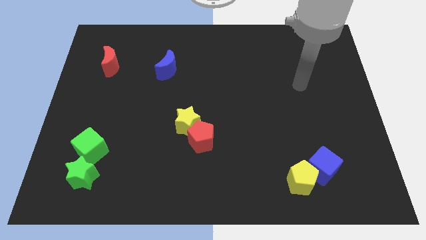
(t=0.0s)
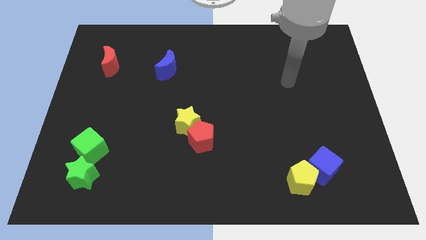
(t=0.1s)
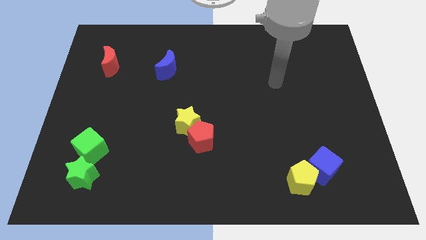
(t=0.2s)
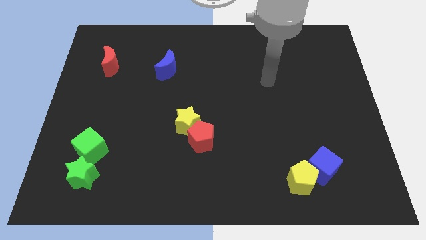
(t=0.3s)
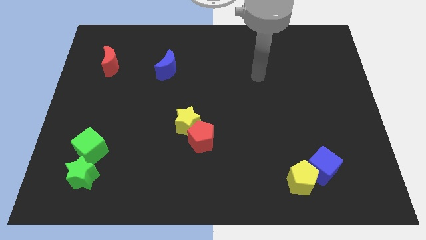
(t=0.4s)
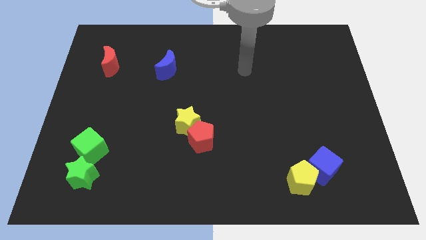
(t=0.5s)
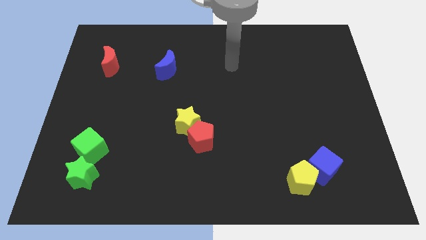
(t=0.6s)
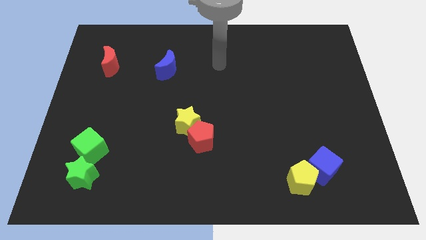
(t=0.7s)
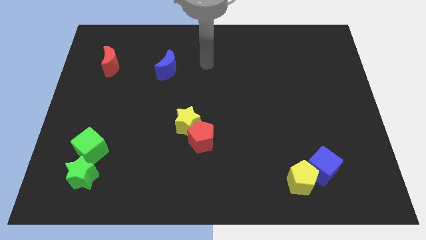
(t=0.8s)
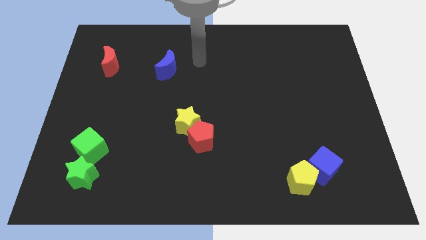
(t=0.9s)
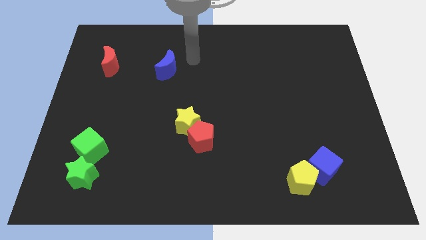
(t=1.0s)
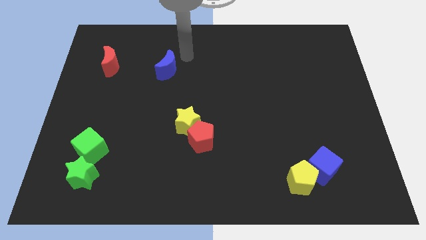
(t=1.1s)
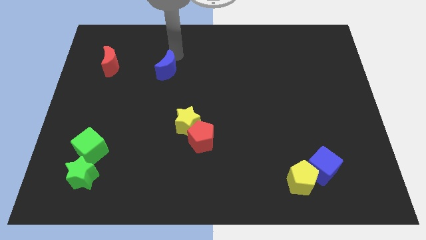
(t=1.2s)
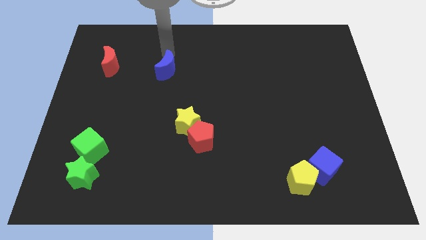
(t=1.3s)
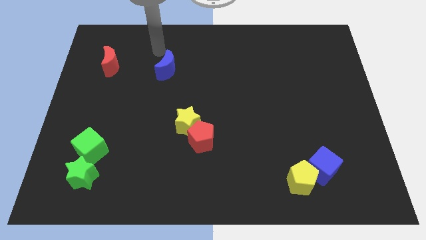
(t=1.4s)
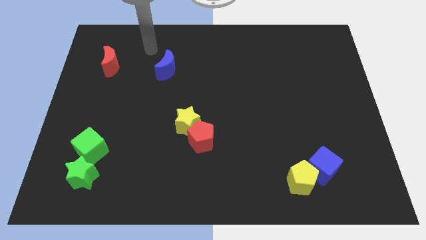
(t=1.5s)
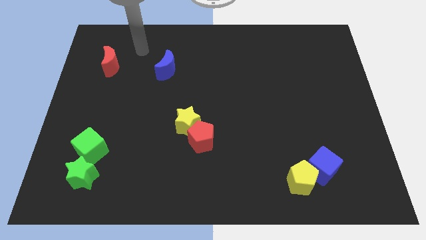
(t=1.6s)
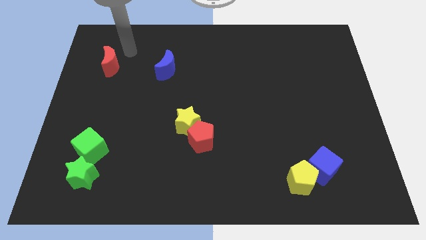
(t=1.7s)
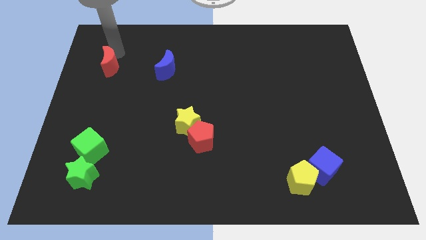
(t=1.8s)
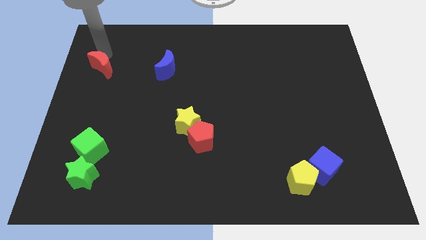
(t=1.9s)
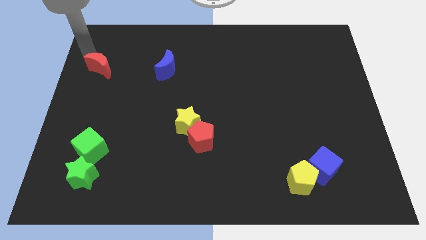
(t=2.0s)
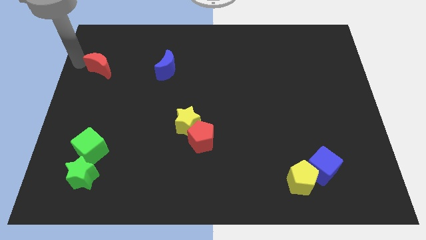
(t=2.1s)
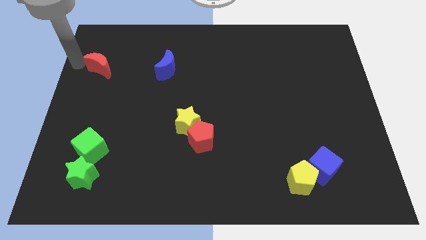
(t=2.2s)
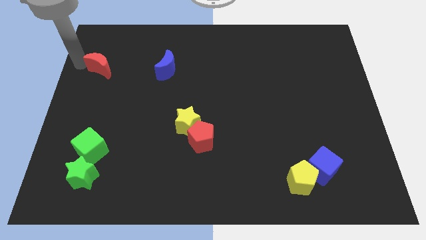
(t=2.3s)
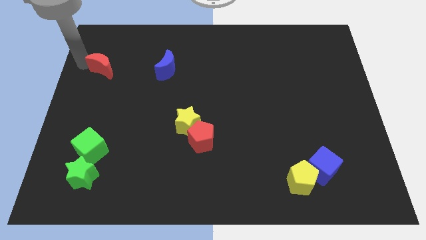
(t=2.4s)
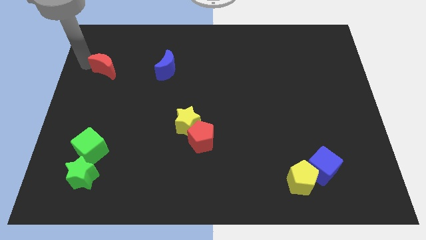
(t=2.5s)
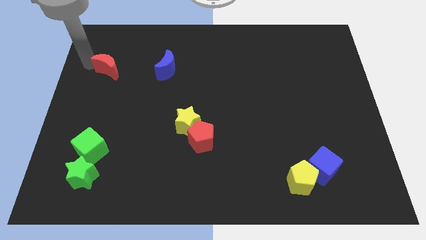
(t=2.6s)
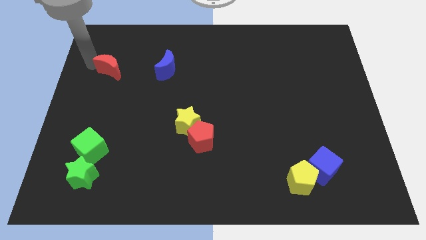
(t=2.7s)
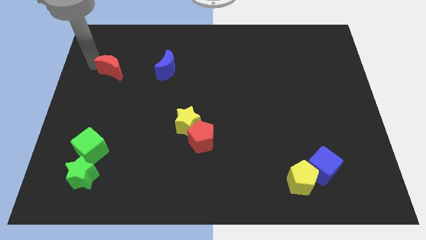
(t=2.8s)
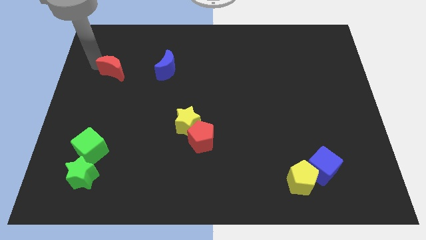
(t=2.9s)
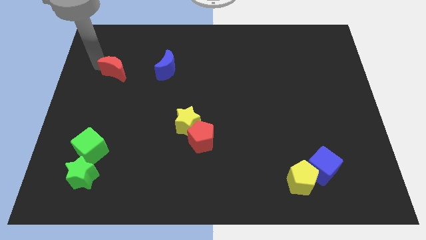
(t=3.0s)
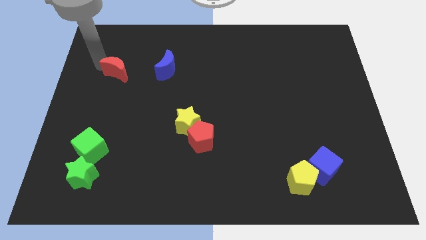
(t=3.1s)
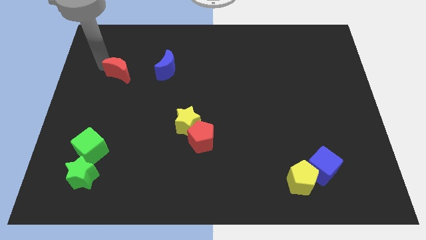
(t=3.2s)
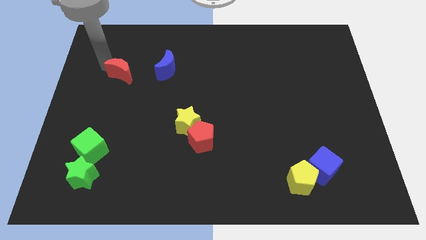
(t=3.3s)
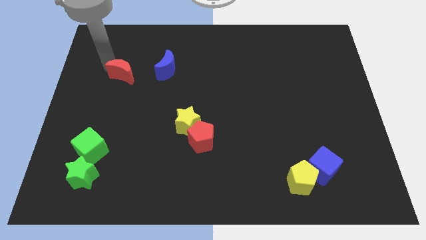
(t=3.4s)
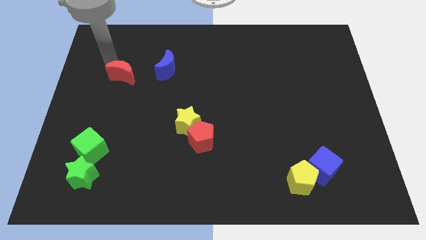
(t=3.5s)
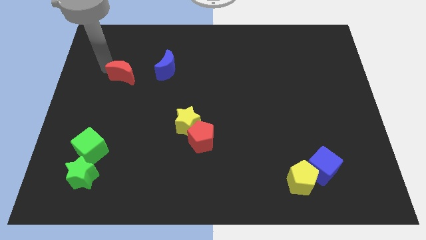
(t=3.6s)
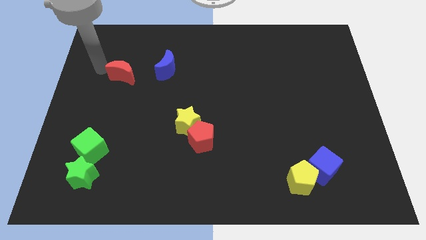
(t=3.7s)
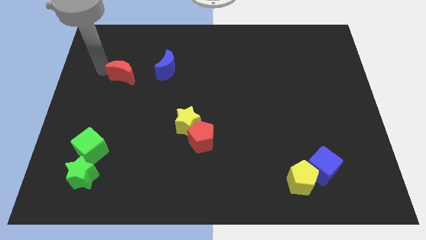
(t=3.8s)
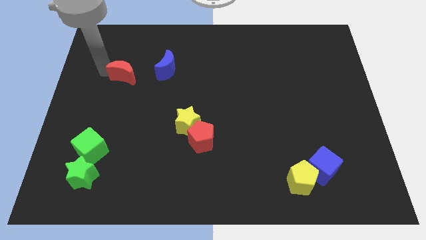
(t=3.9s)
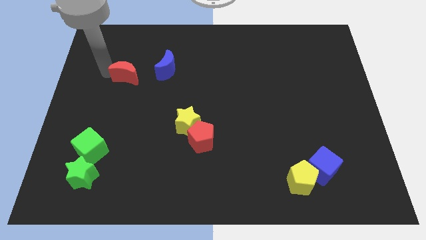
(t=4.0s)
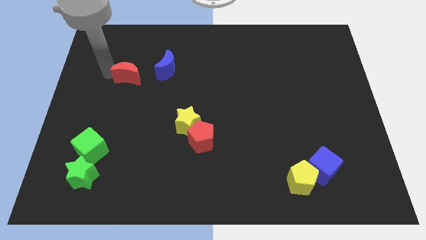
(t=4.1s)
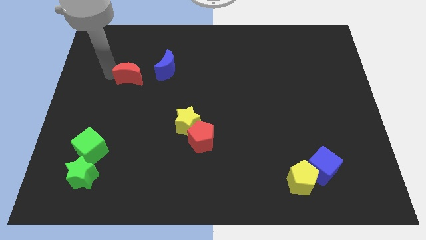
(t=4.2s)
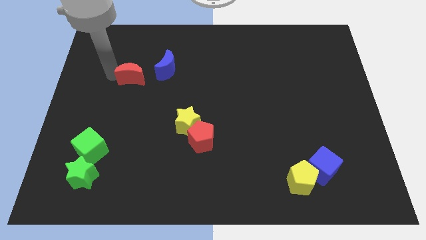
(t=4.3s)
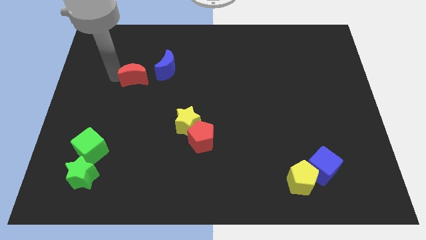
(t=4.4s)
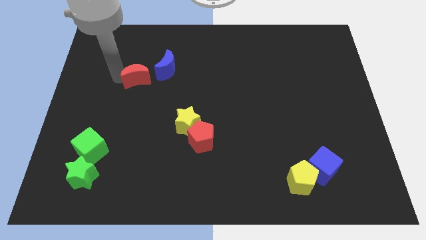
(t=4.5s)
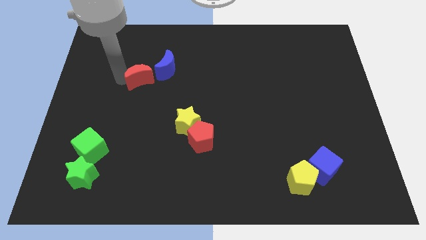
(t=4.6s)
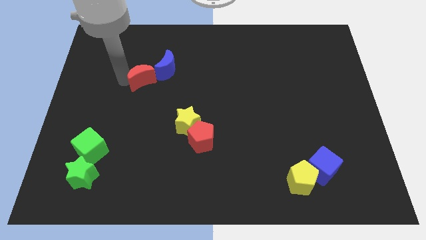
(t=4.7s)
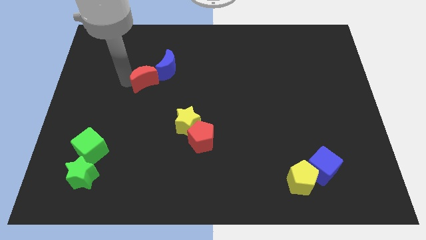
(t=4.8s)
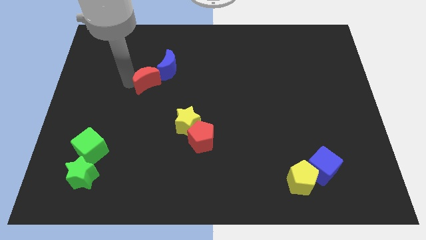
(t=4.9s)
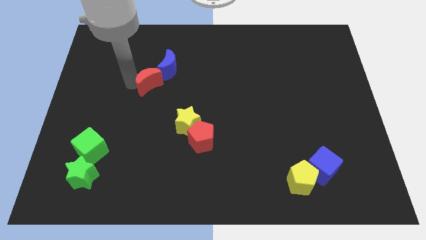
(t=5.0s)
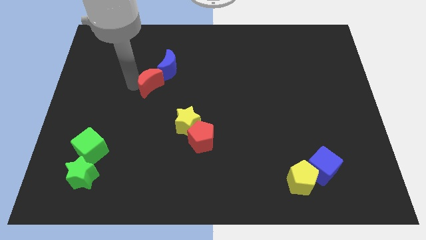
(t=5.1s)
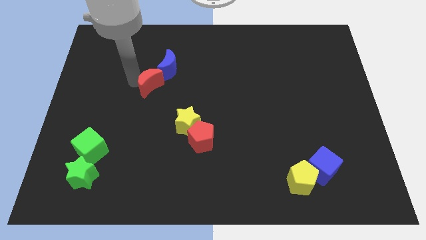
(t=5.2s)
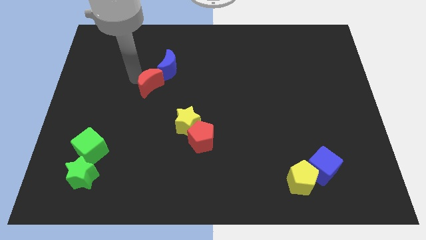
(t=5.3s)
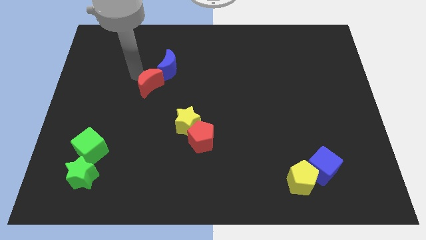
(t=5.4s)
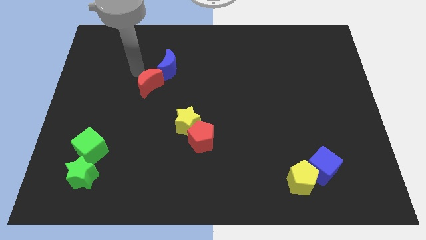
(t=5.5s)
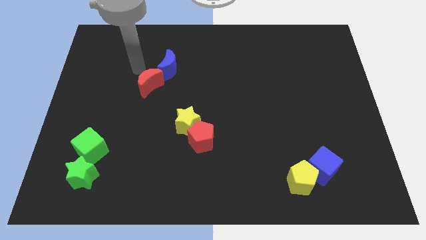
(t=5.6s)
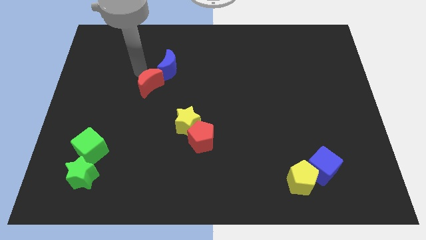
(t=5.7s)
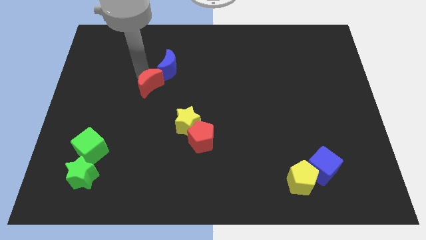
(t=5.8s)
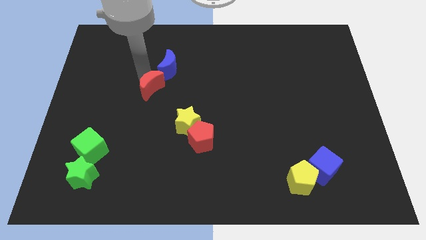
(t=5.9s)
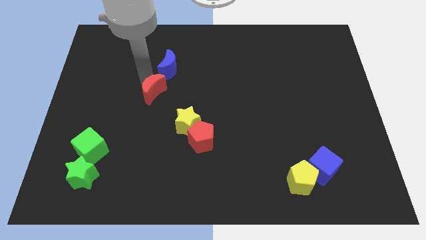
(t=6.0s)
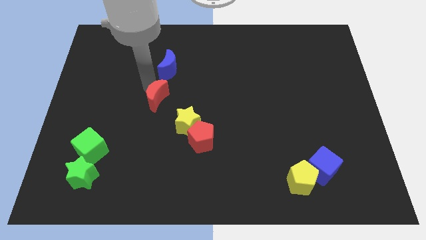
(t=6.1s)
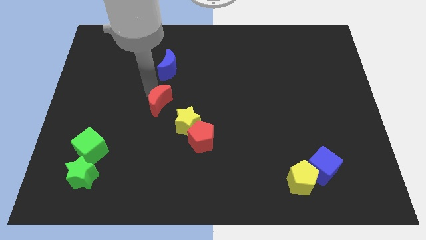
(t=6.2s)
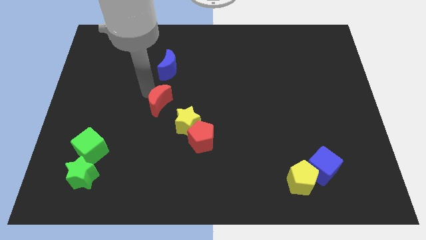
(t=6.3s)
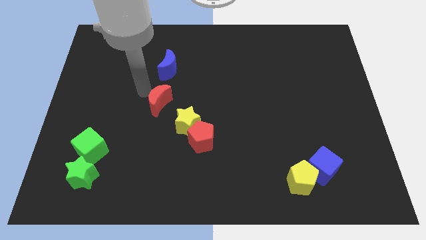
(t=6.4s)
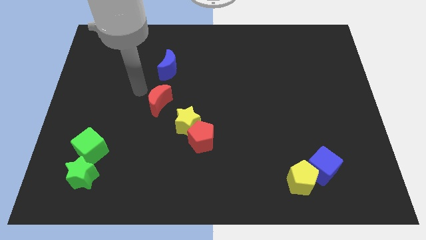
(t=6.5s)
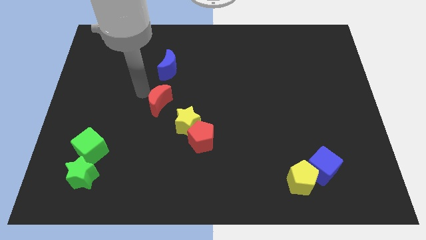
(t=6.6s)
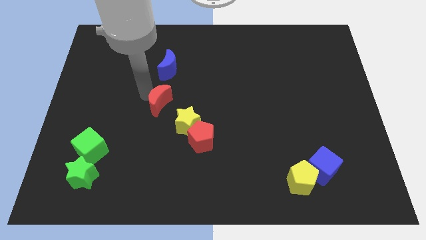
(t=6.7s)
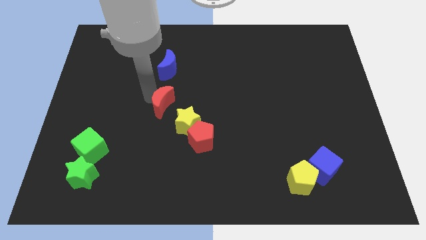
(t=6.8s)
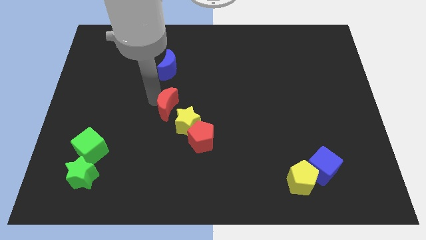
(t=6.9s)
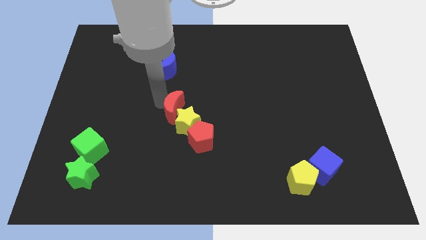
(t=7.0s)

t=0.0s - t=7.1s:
move the red moon towards the yellow star

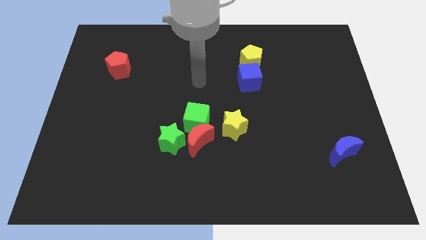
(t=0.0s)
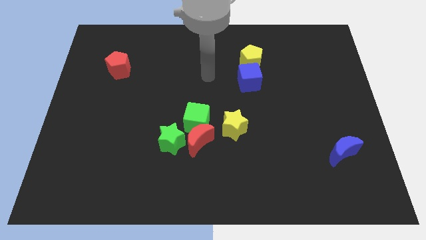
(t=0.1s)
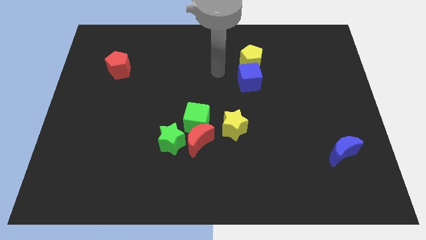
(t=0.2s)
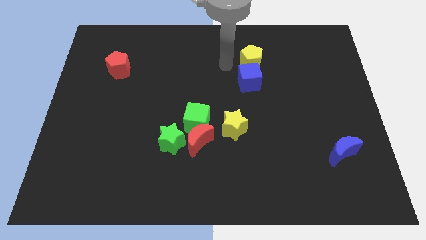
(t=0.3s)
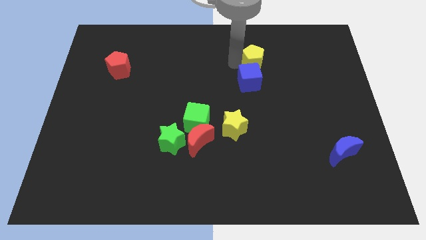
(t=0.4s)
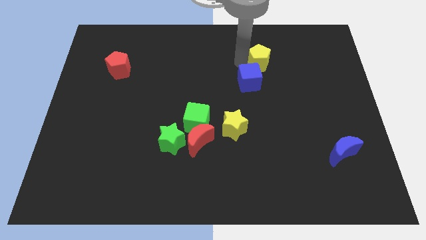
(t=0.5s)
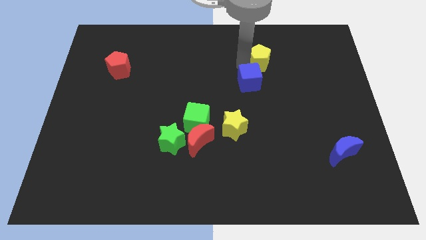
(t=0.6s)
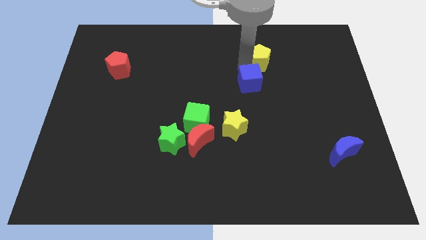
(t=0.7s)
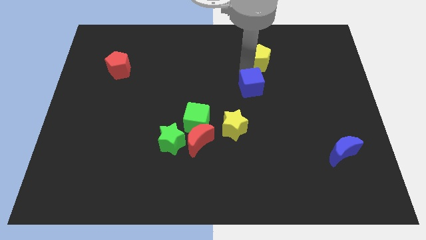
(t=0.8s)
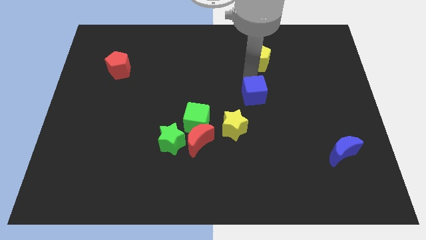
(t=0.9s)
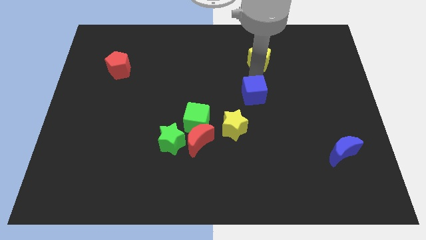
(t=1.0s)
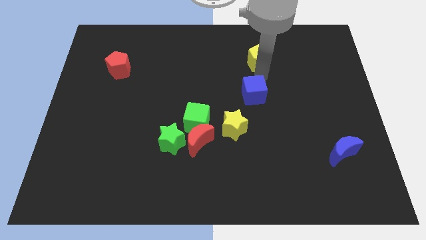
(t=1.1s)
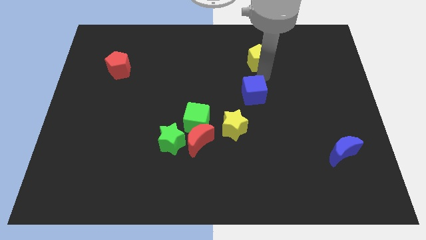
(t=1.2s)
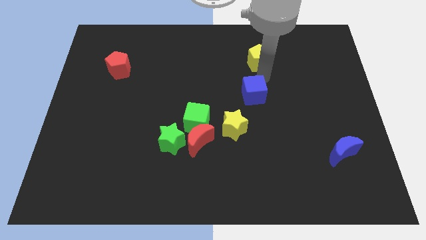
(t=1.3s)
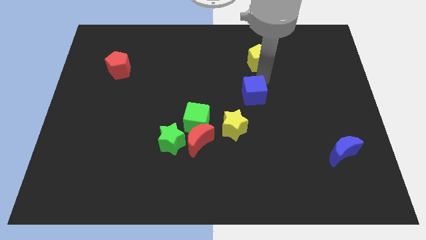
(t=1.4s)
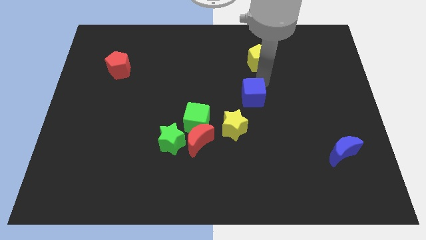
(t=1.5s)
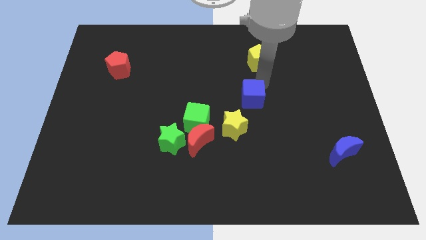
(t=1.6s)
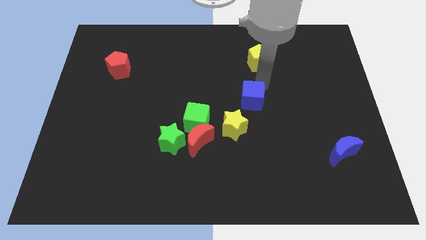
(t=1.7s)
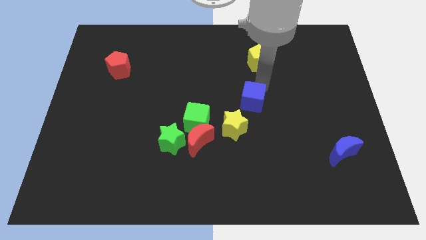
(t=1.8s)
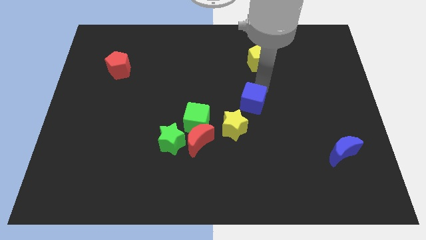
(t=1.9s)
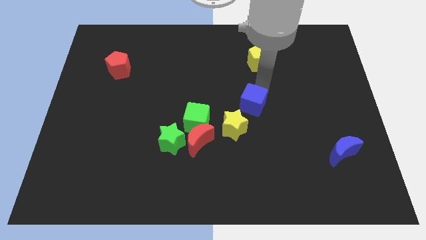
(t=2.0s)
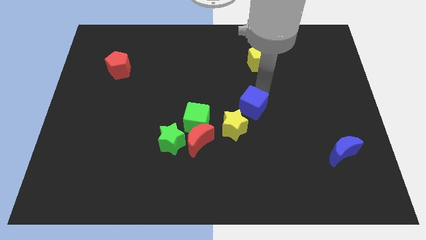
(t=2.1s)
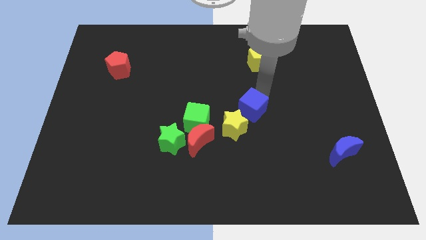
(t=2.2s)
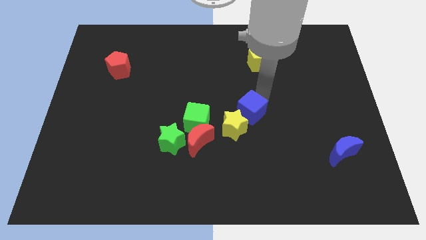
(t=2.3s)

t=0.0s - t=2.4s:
slide the blue cube to the yellow star
